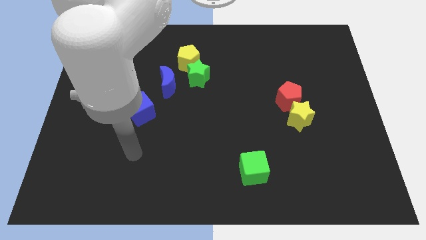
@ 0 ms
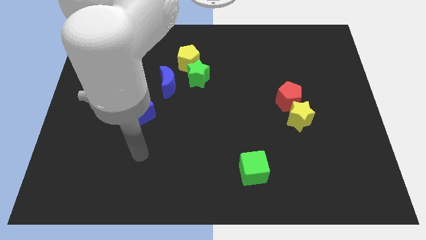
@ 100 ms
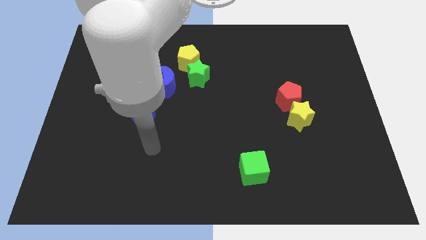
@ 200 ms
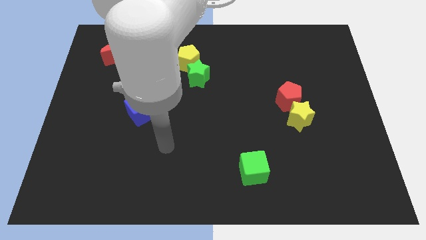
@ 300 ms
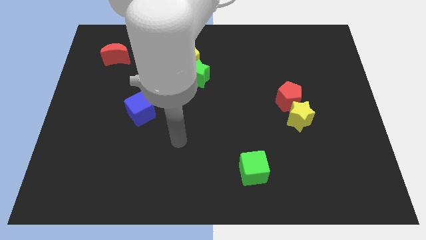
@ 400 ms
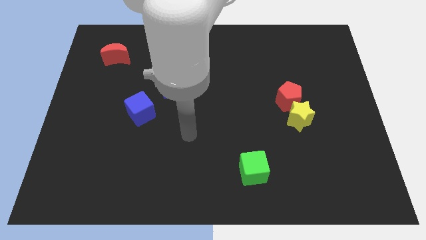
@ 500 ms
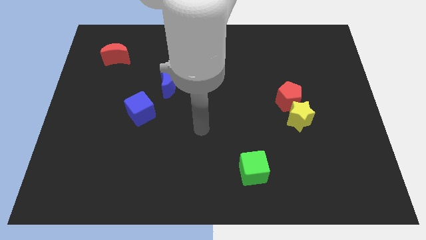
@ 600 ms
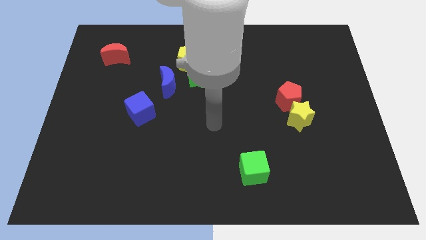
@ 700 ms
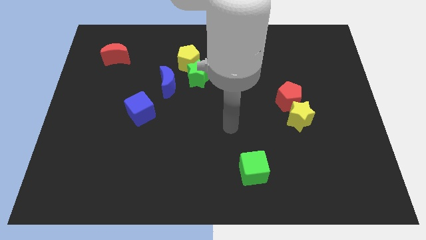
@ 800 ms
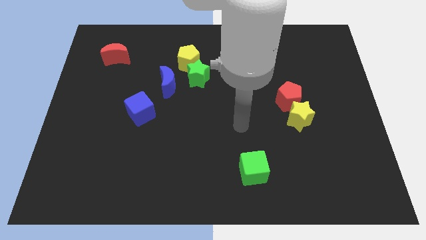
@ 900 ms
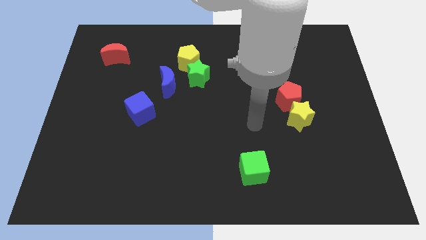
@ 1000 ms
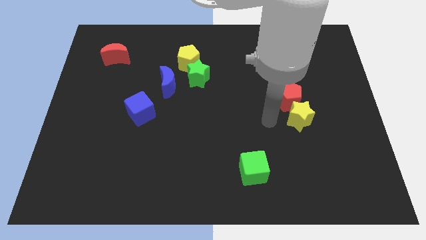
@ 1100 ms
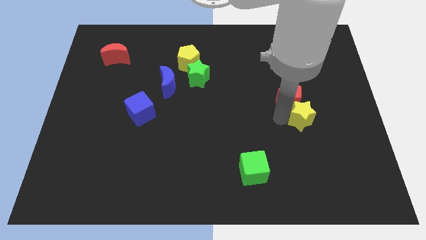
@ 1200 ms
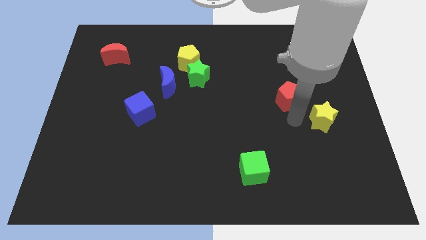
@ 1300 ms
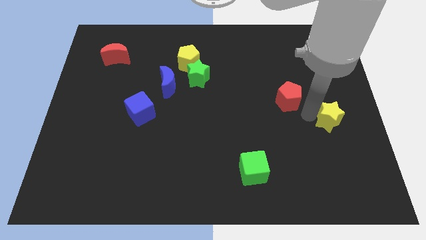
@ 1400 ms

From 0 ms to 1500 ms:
separate the red pentagon from the yellow star

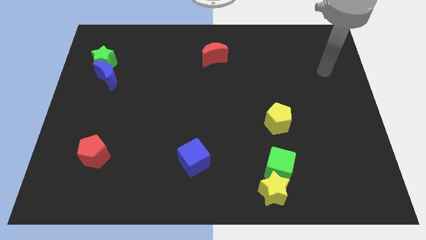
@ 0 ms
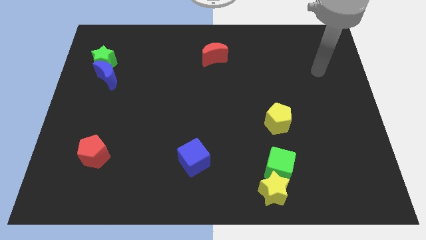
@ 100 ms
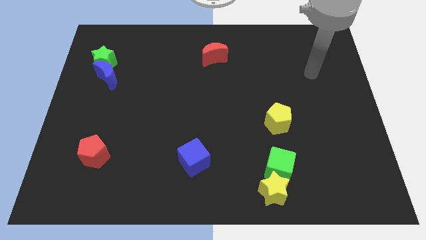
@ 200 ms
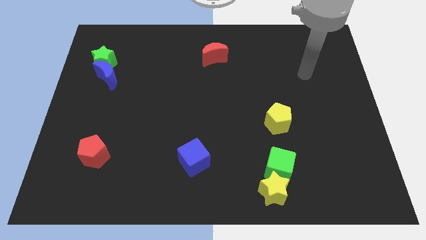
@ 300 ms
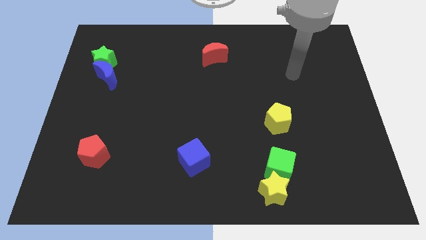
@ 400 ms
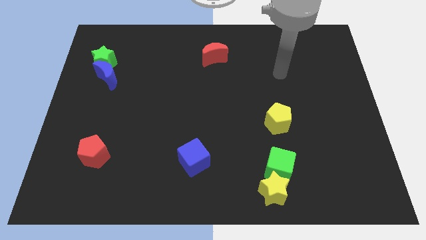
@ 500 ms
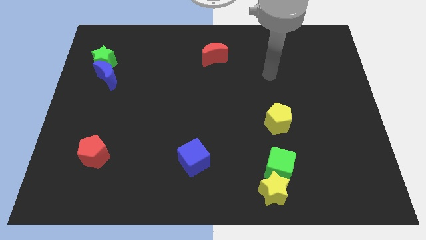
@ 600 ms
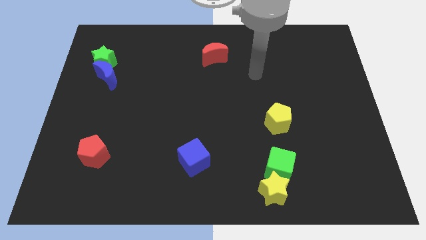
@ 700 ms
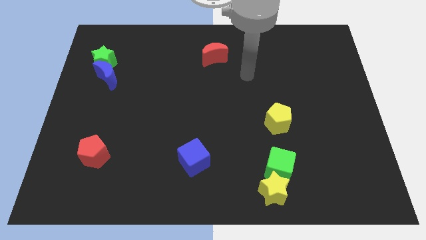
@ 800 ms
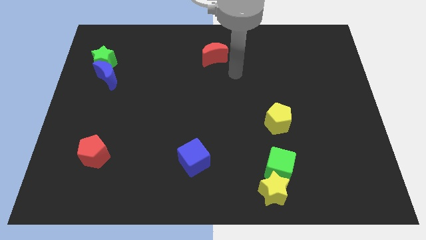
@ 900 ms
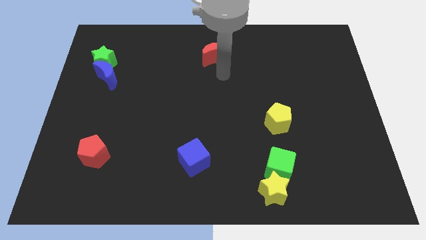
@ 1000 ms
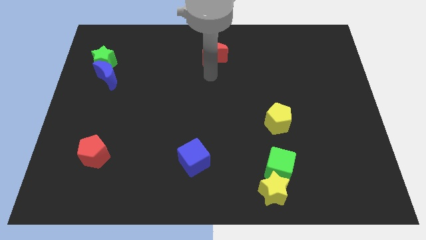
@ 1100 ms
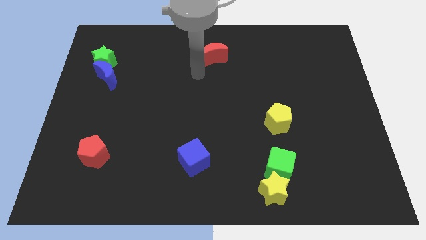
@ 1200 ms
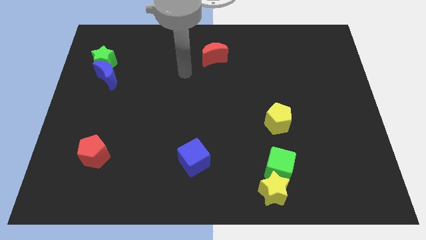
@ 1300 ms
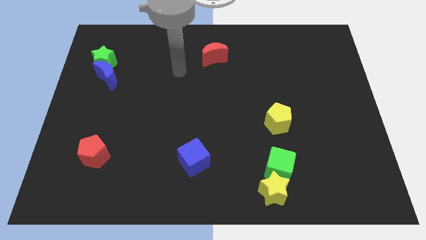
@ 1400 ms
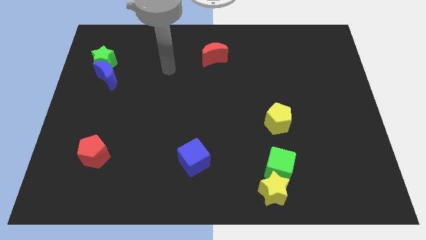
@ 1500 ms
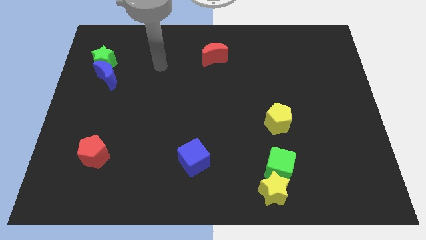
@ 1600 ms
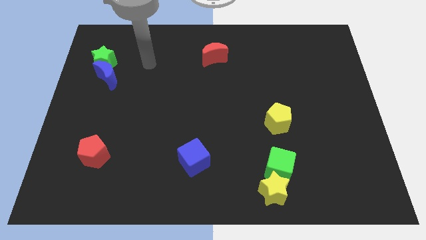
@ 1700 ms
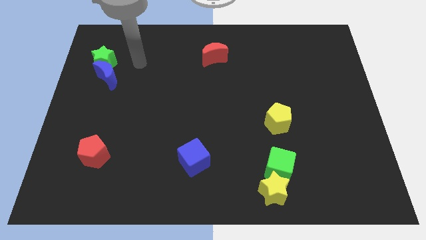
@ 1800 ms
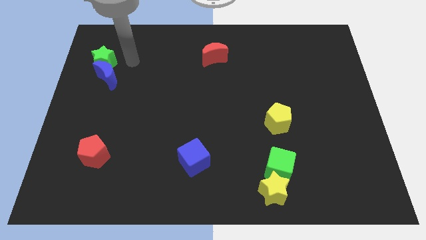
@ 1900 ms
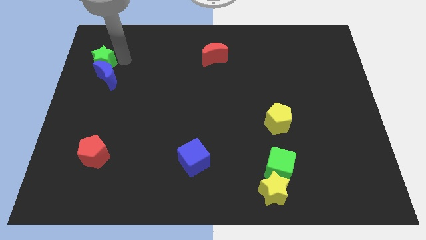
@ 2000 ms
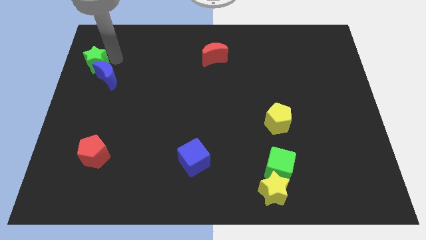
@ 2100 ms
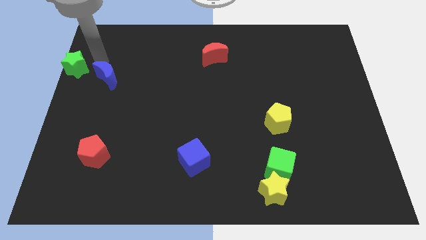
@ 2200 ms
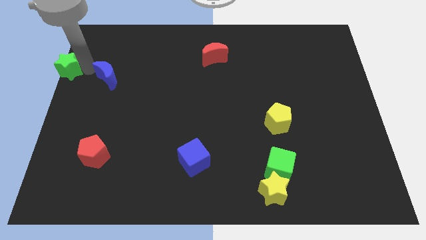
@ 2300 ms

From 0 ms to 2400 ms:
move the blue moon away from the green star

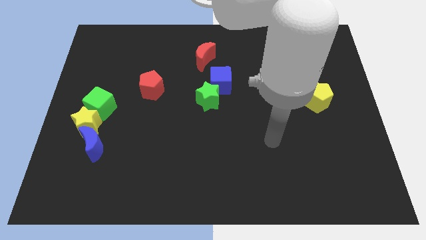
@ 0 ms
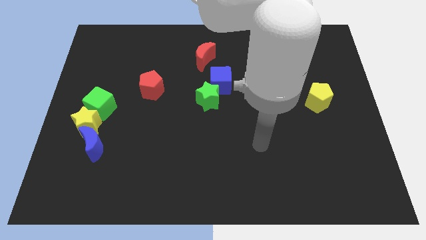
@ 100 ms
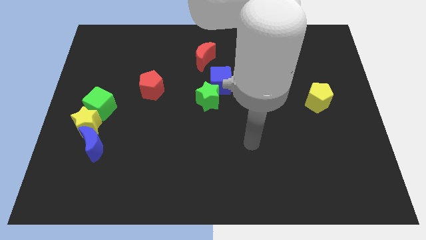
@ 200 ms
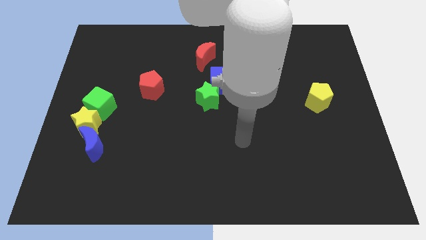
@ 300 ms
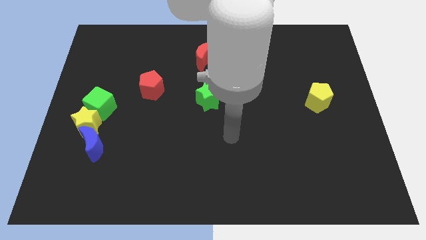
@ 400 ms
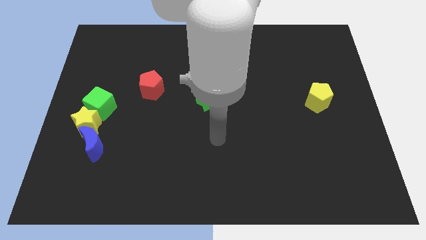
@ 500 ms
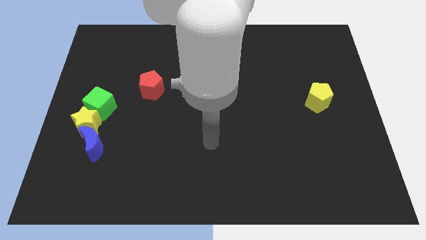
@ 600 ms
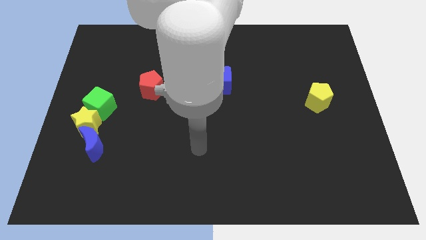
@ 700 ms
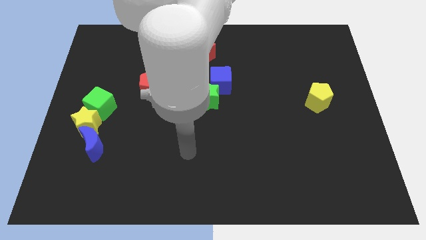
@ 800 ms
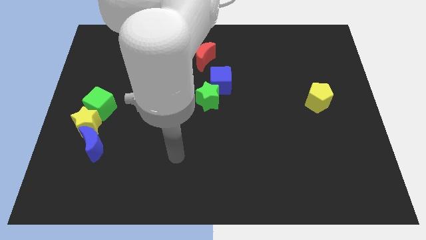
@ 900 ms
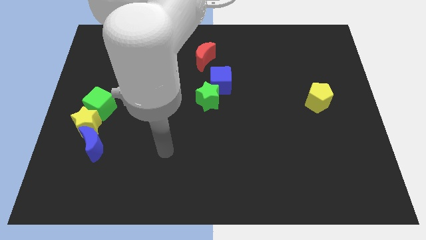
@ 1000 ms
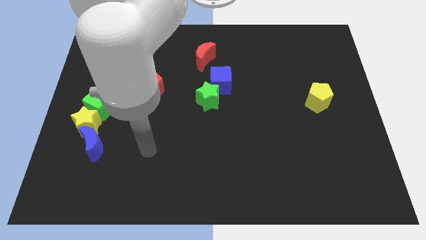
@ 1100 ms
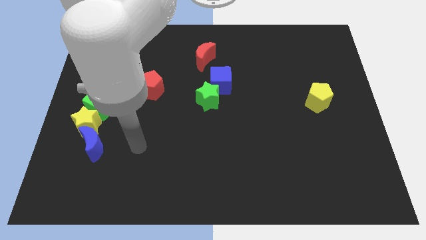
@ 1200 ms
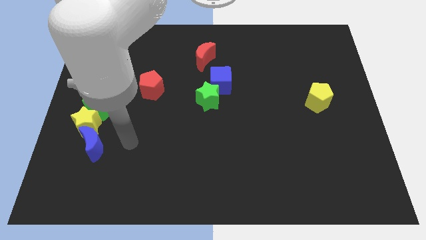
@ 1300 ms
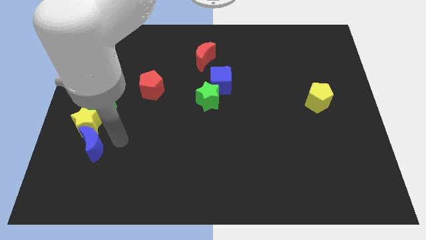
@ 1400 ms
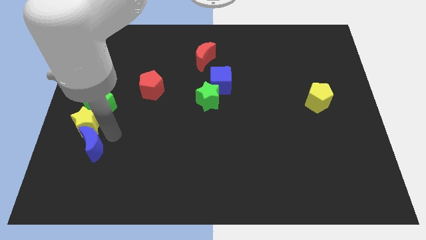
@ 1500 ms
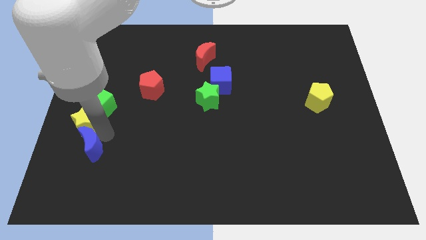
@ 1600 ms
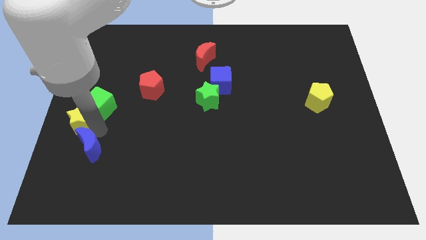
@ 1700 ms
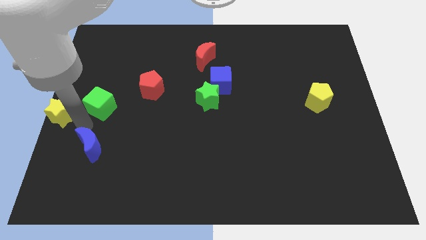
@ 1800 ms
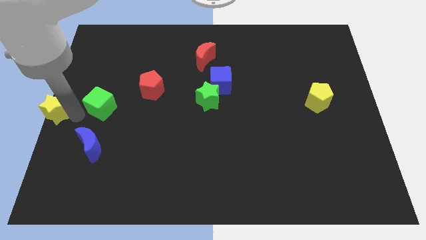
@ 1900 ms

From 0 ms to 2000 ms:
pull the green cube apart from the yellow star

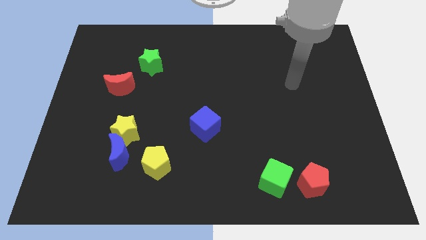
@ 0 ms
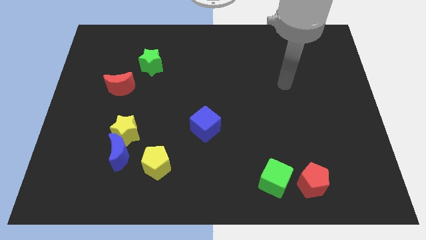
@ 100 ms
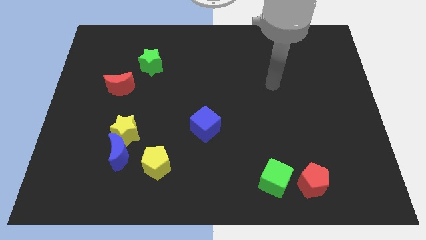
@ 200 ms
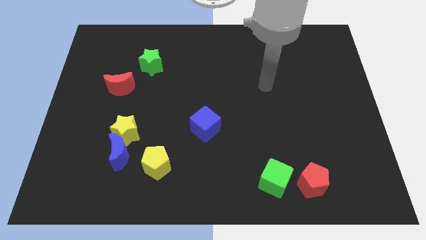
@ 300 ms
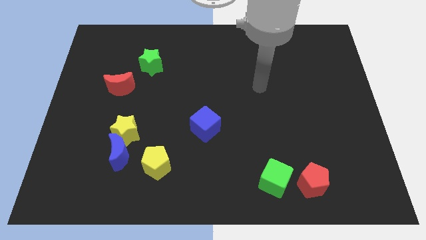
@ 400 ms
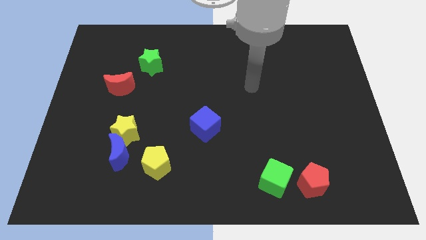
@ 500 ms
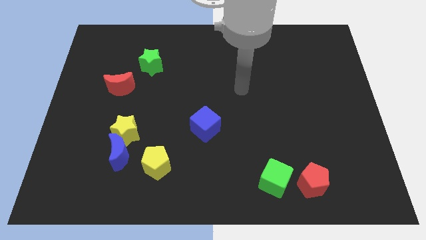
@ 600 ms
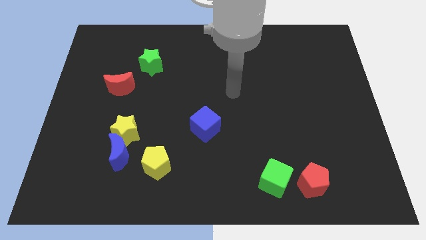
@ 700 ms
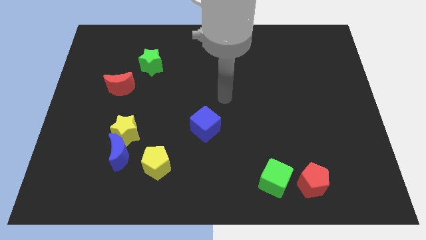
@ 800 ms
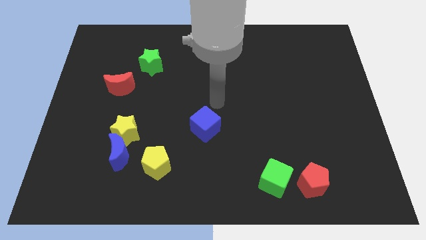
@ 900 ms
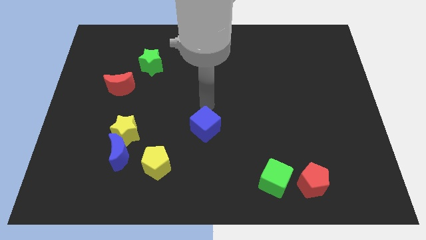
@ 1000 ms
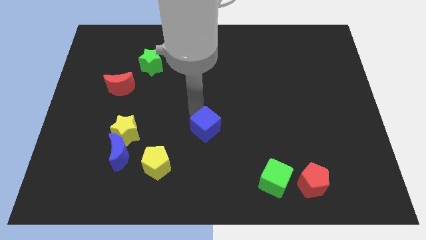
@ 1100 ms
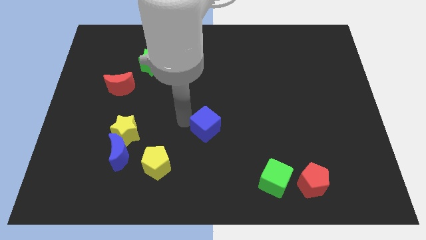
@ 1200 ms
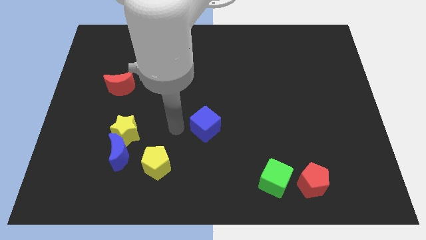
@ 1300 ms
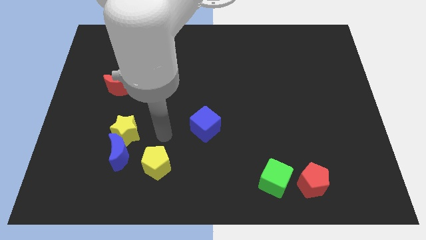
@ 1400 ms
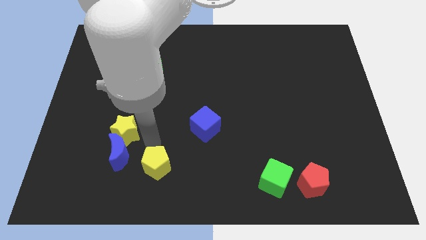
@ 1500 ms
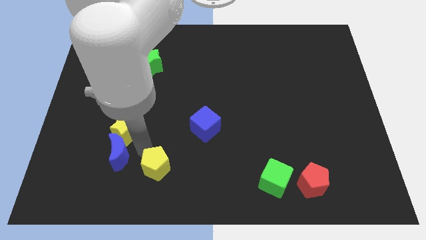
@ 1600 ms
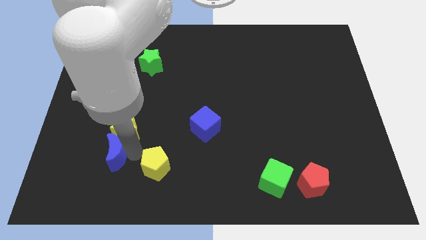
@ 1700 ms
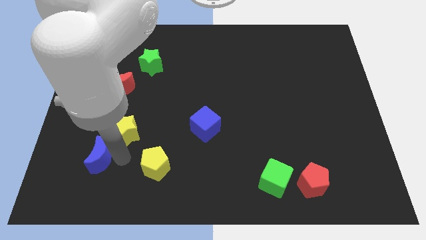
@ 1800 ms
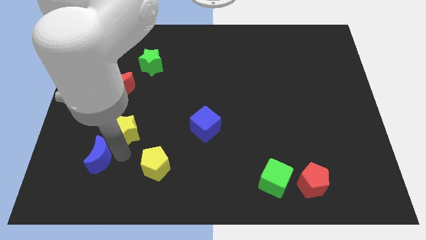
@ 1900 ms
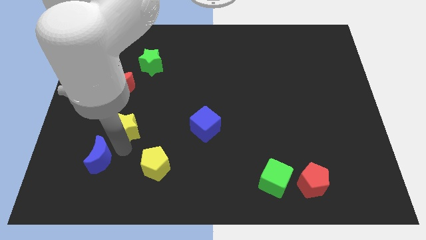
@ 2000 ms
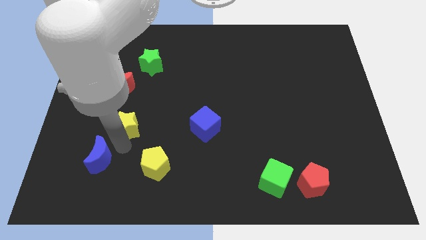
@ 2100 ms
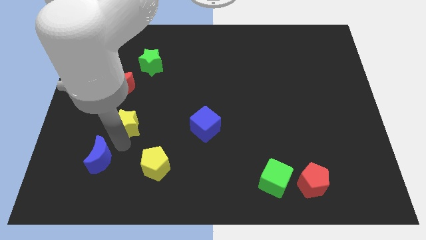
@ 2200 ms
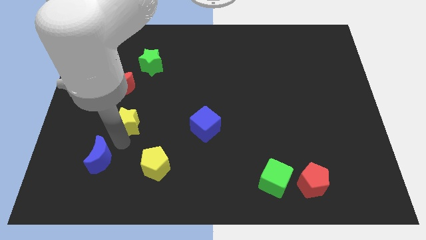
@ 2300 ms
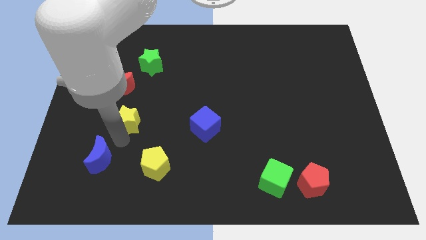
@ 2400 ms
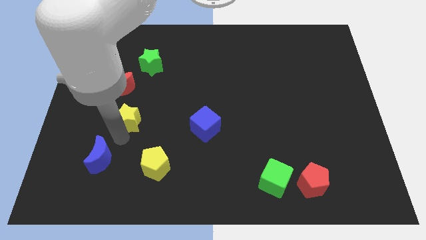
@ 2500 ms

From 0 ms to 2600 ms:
pull the yellow star apart from the blue moon

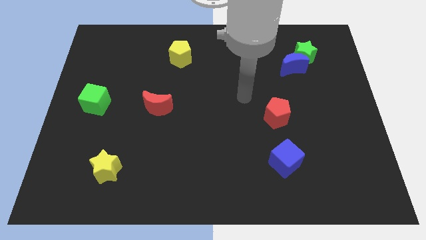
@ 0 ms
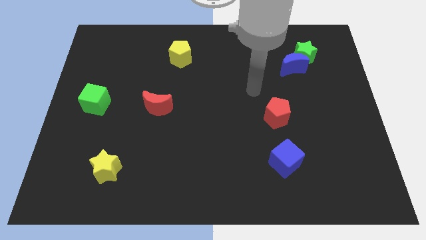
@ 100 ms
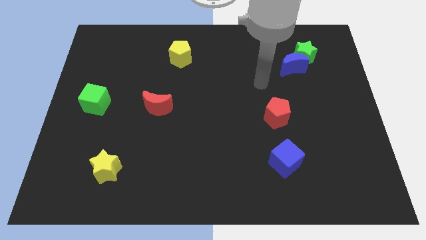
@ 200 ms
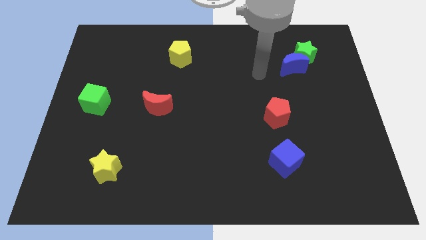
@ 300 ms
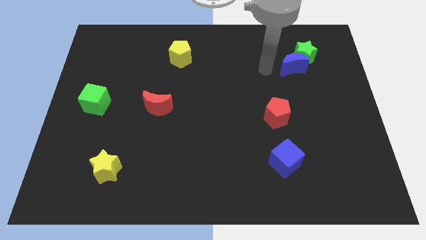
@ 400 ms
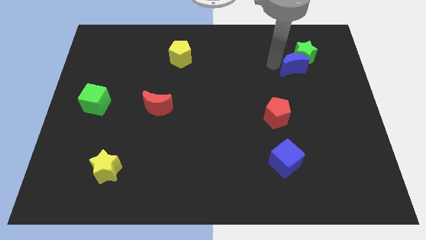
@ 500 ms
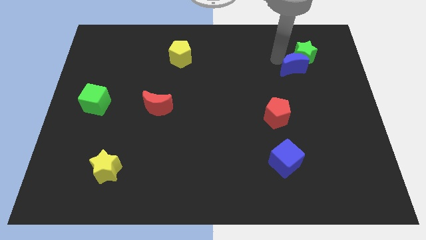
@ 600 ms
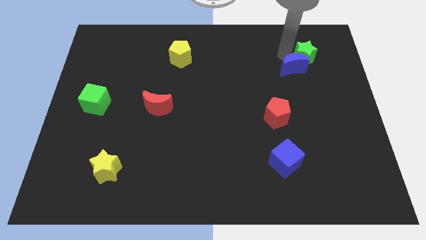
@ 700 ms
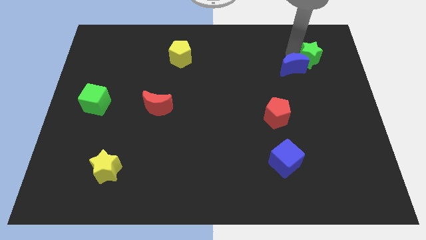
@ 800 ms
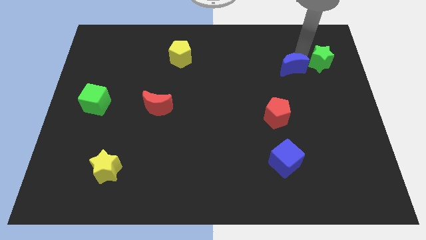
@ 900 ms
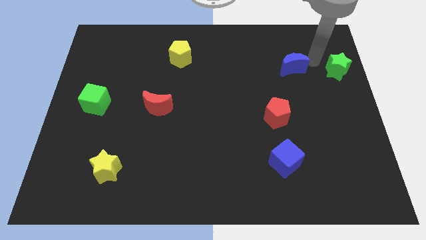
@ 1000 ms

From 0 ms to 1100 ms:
pull the blue moon apart from the green star
